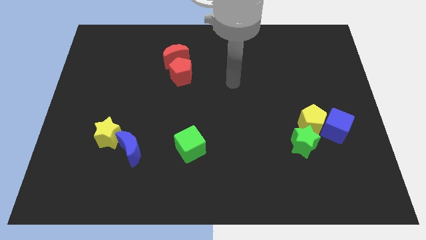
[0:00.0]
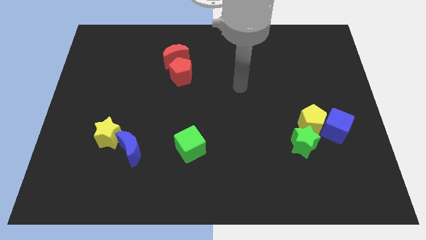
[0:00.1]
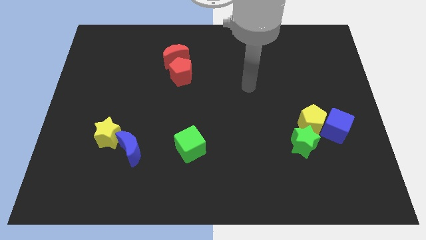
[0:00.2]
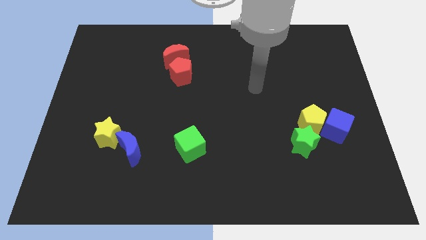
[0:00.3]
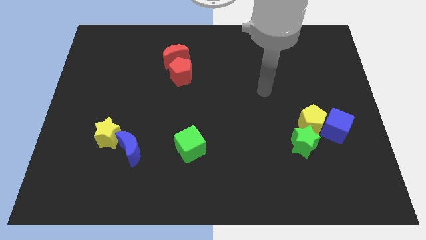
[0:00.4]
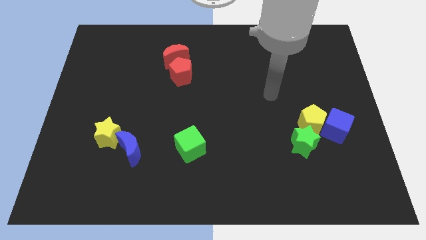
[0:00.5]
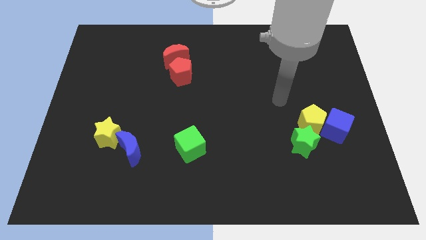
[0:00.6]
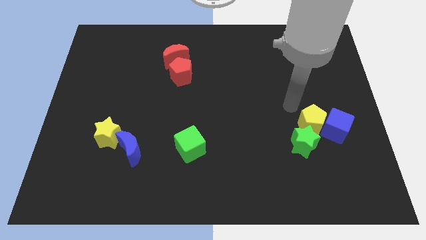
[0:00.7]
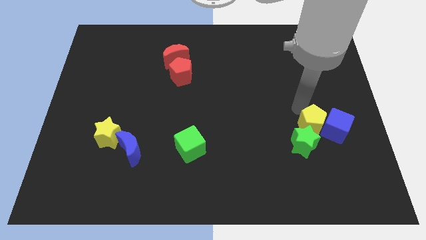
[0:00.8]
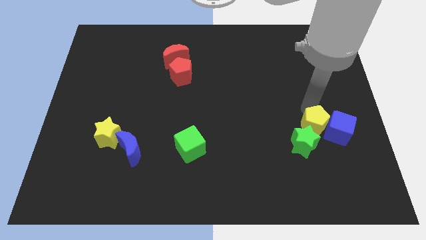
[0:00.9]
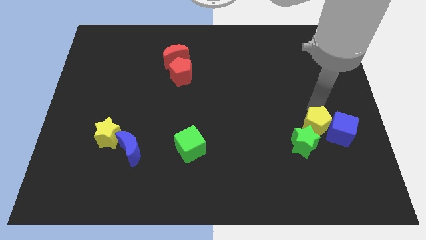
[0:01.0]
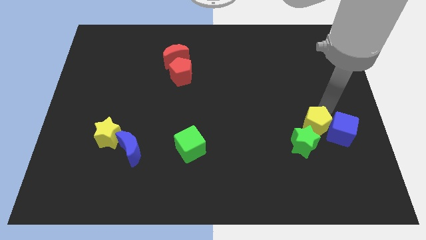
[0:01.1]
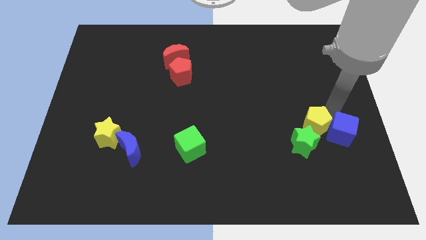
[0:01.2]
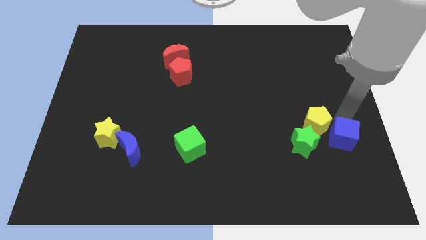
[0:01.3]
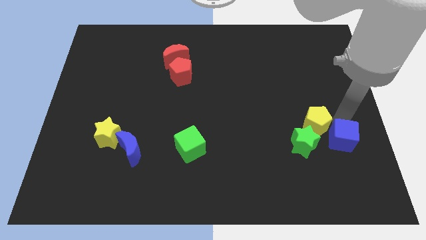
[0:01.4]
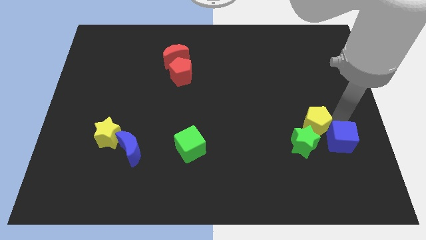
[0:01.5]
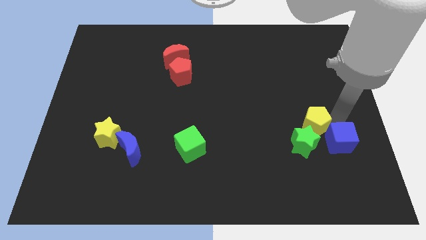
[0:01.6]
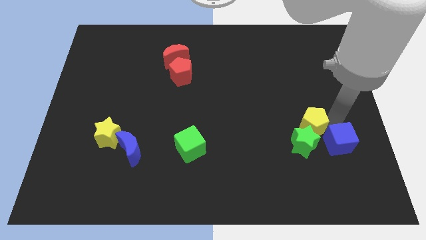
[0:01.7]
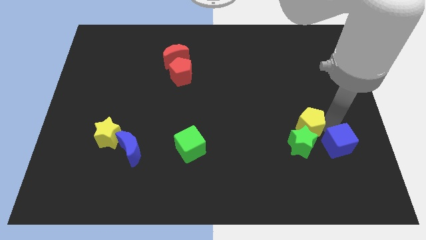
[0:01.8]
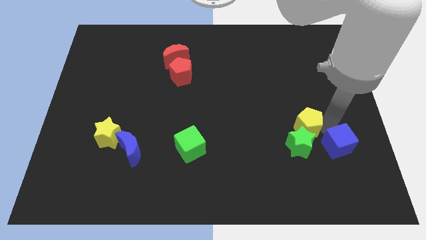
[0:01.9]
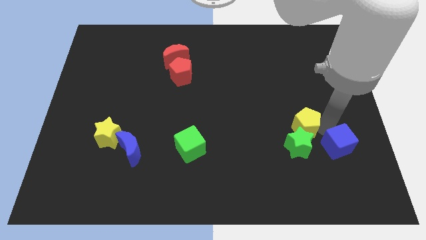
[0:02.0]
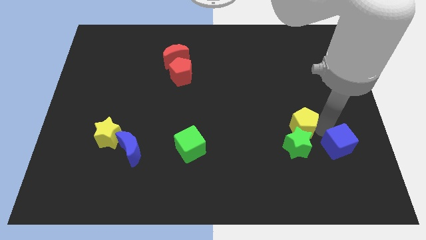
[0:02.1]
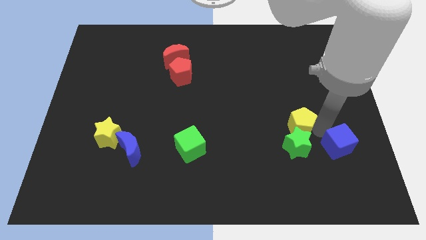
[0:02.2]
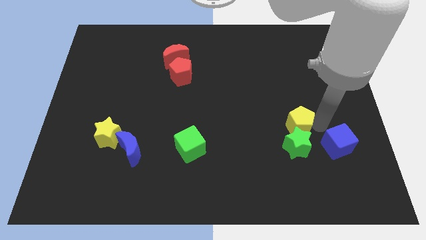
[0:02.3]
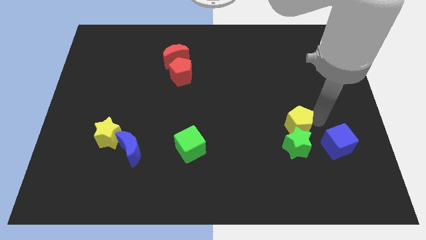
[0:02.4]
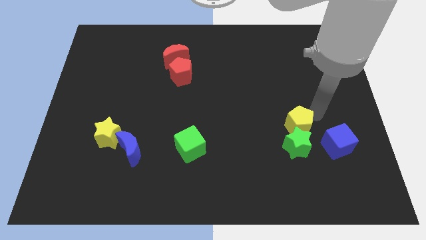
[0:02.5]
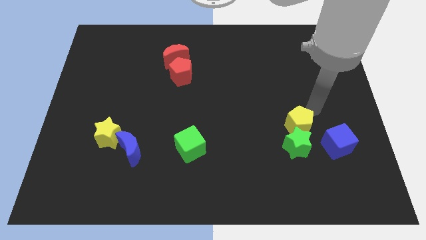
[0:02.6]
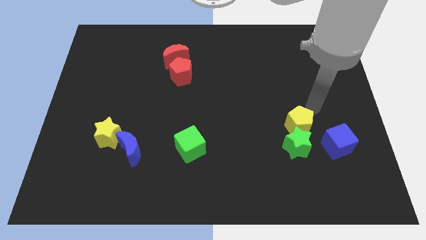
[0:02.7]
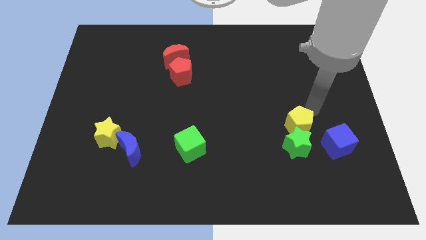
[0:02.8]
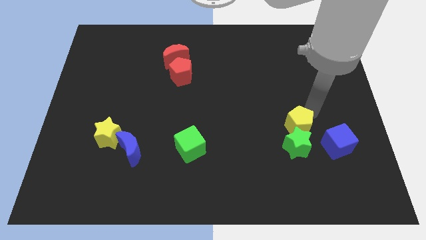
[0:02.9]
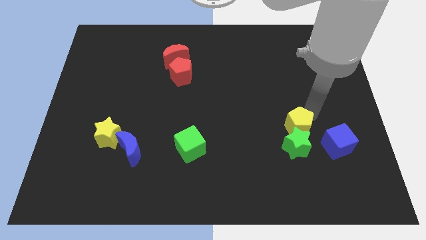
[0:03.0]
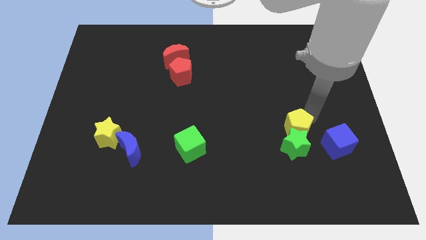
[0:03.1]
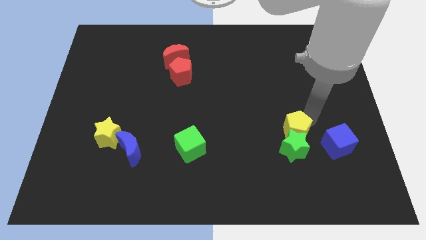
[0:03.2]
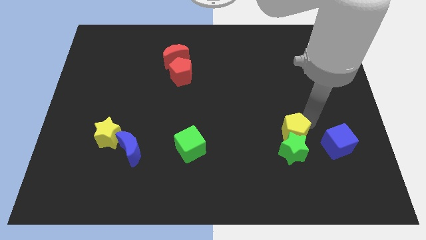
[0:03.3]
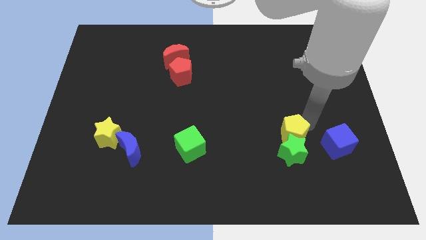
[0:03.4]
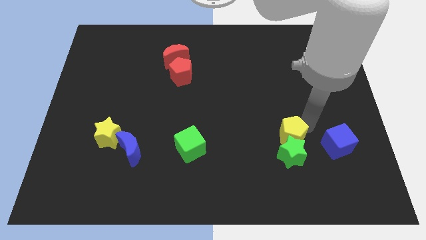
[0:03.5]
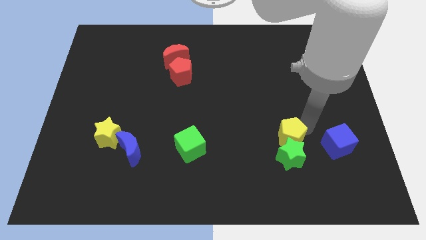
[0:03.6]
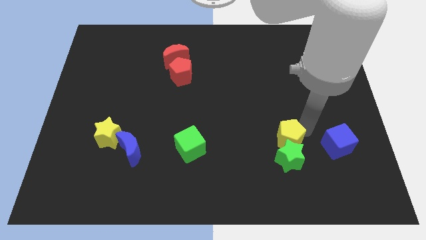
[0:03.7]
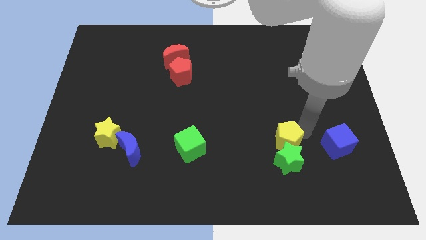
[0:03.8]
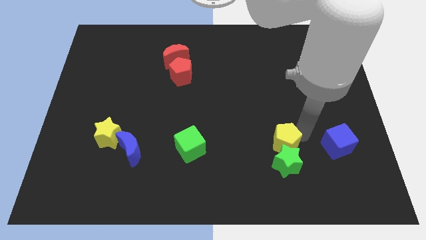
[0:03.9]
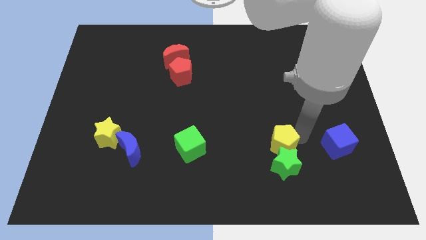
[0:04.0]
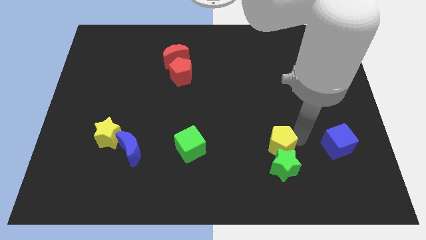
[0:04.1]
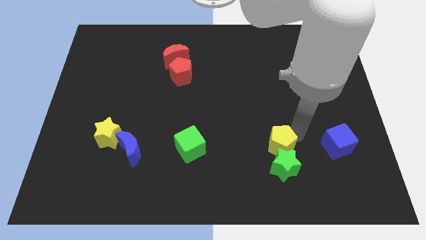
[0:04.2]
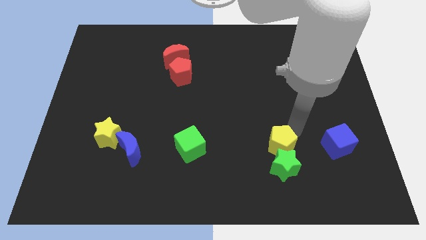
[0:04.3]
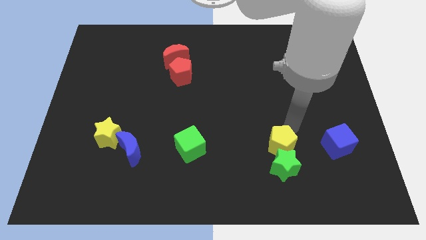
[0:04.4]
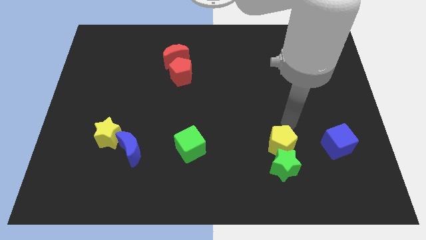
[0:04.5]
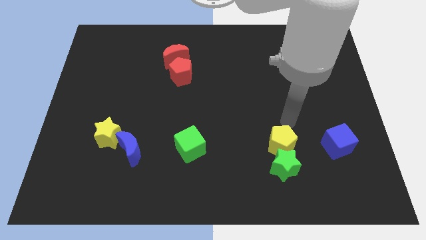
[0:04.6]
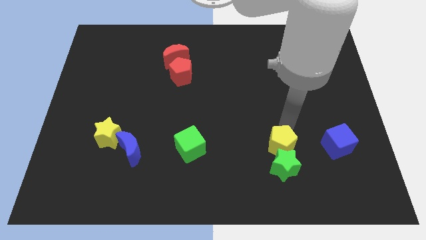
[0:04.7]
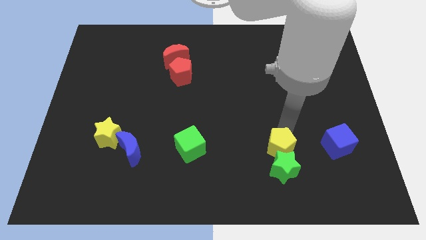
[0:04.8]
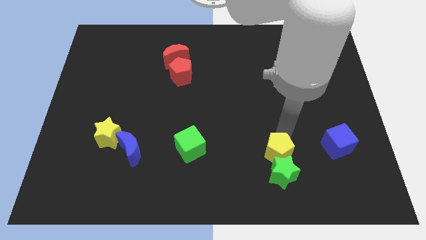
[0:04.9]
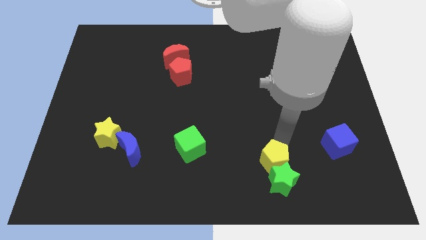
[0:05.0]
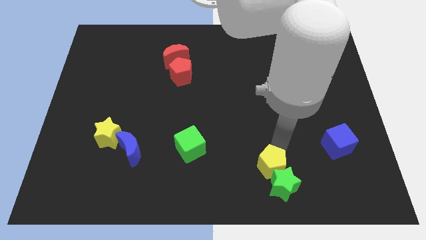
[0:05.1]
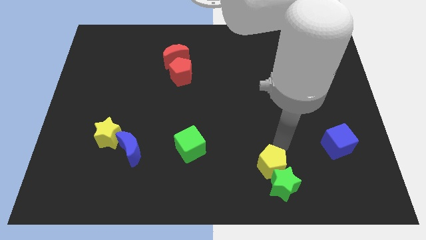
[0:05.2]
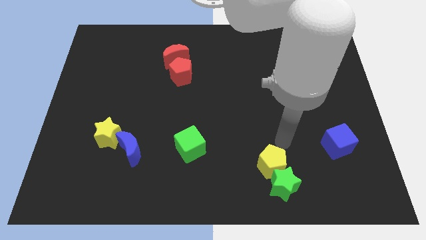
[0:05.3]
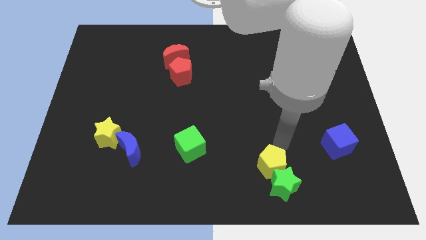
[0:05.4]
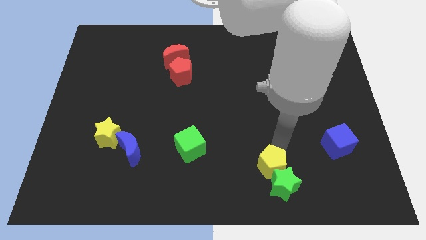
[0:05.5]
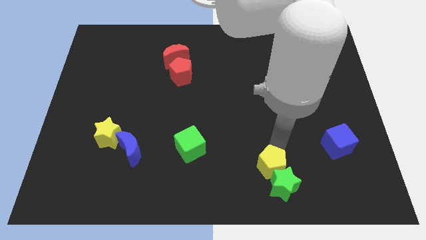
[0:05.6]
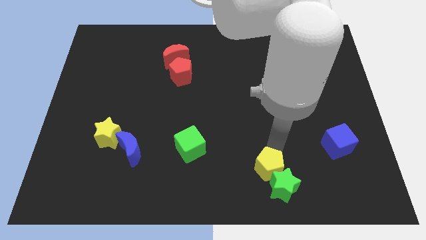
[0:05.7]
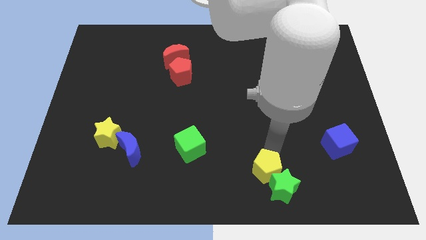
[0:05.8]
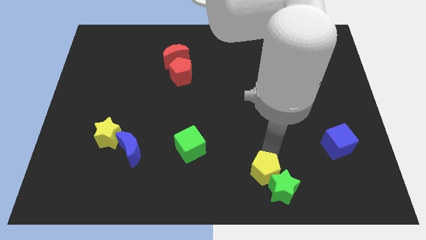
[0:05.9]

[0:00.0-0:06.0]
move the yellow pentagon to the bottom side

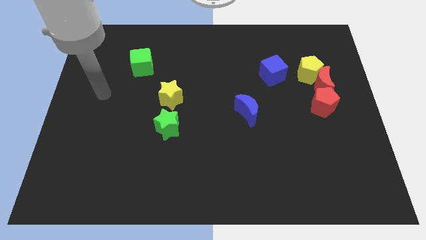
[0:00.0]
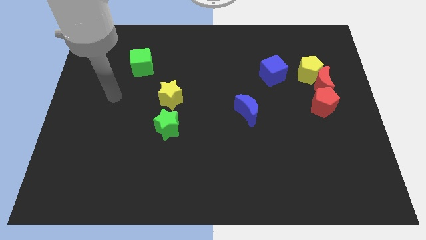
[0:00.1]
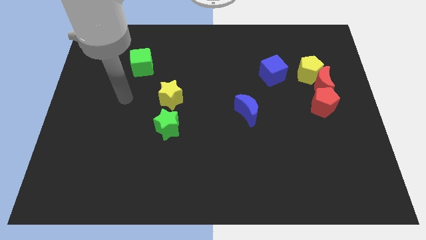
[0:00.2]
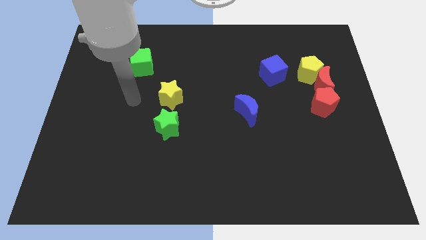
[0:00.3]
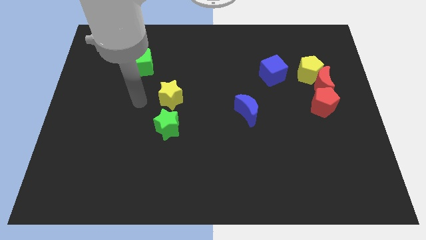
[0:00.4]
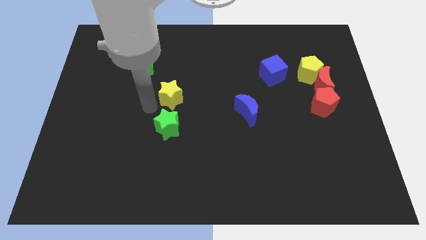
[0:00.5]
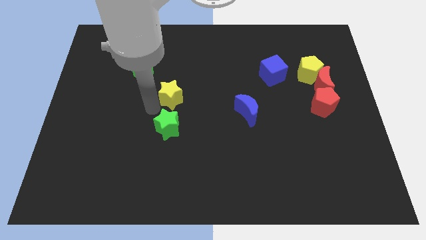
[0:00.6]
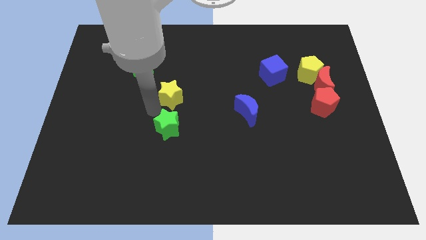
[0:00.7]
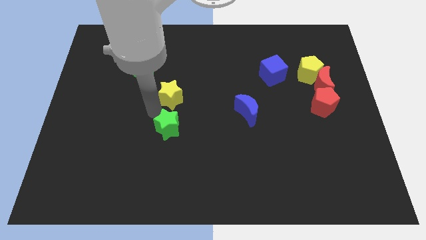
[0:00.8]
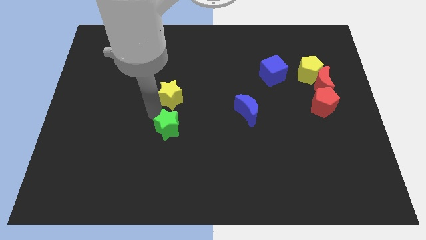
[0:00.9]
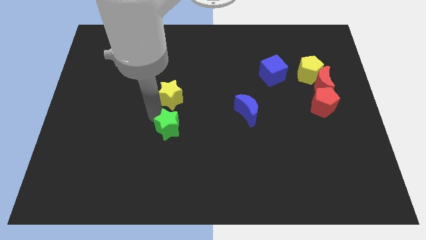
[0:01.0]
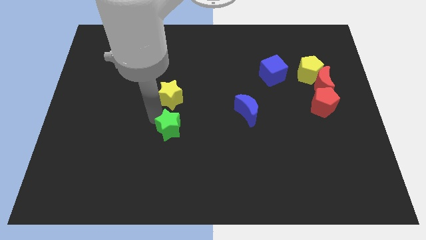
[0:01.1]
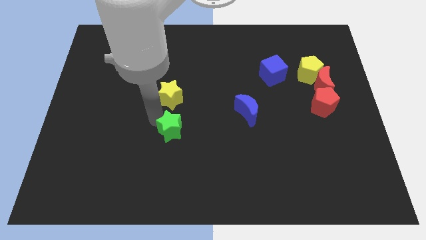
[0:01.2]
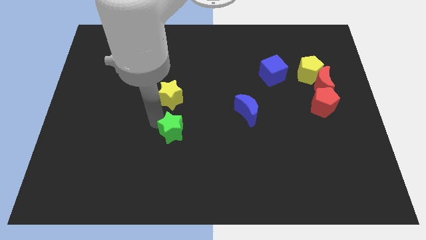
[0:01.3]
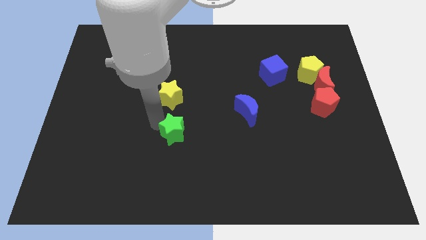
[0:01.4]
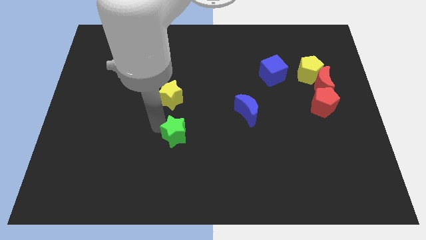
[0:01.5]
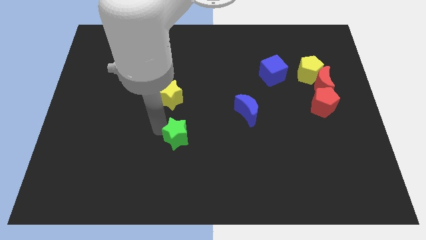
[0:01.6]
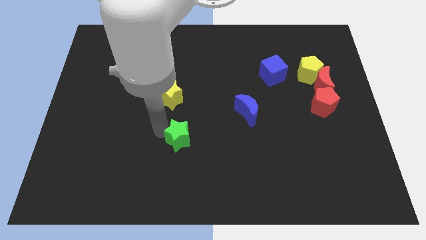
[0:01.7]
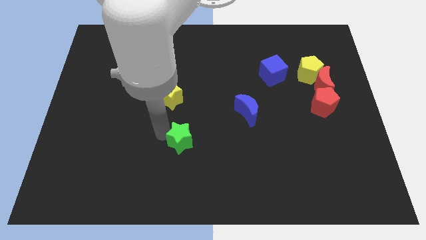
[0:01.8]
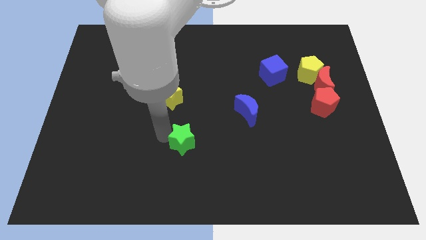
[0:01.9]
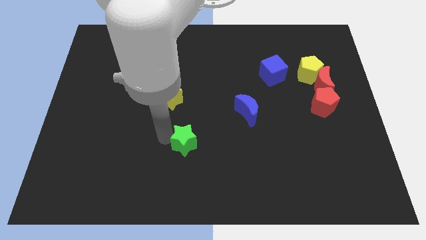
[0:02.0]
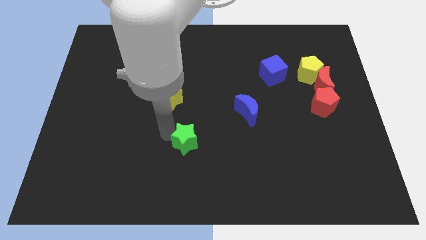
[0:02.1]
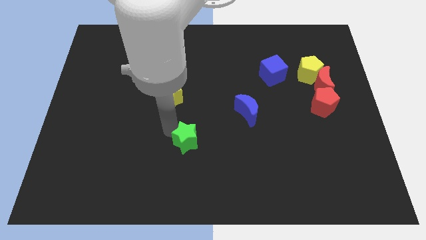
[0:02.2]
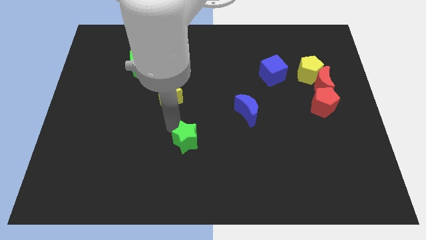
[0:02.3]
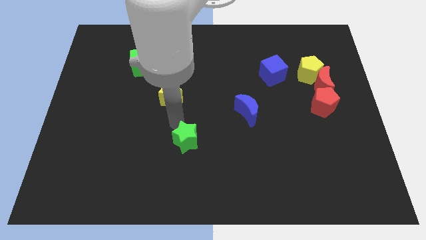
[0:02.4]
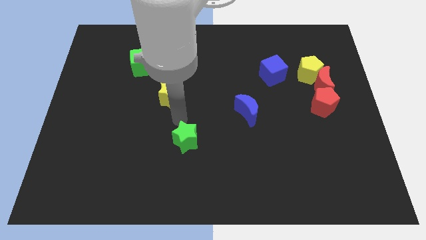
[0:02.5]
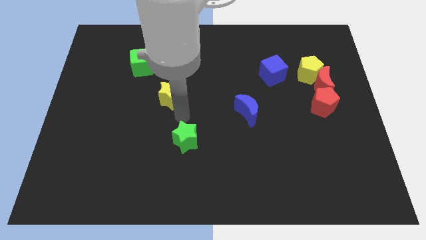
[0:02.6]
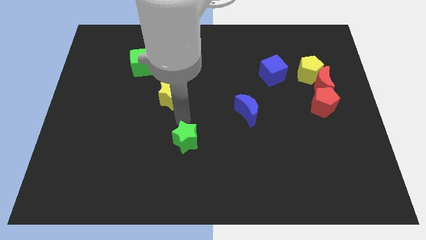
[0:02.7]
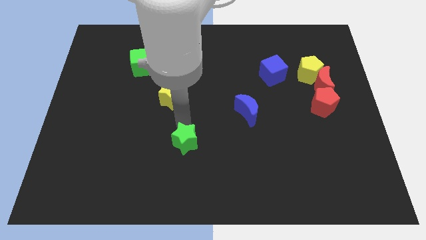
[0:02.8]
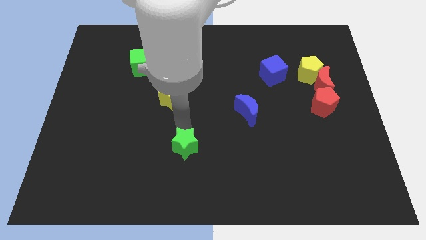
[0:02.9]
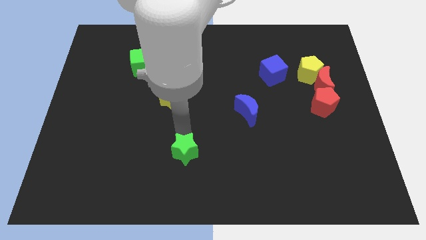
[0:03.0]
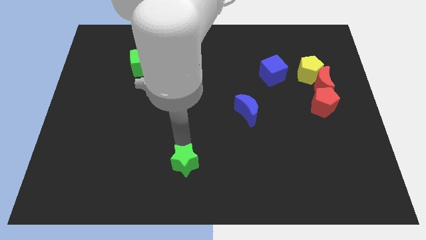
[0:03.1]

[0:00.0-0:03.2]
put the green star to the bottom
